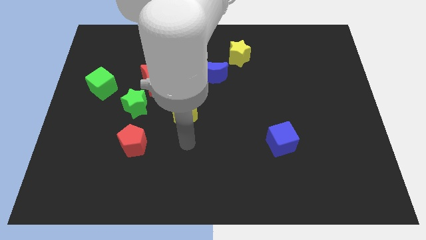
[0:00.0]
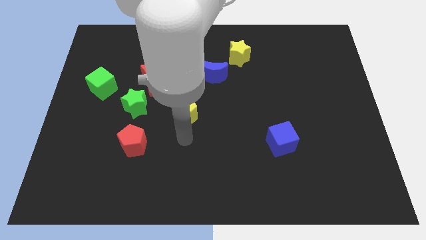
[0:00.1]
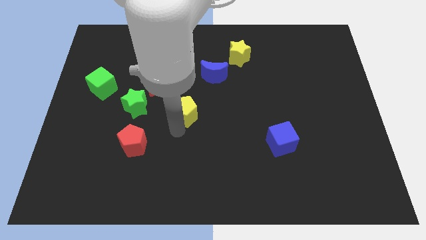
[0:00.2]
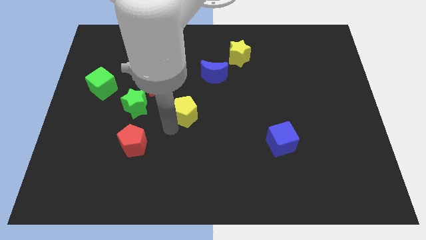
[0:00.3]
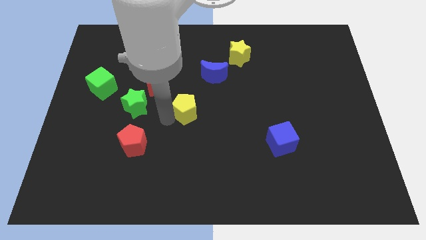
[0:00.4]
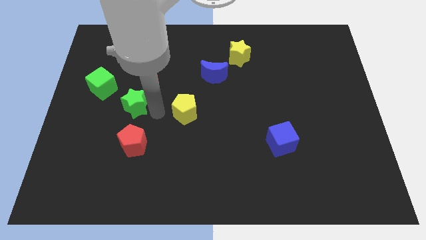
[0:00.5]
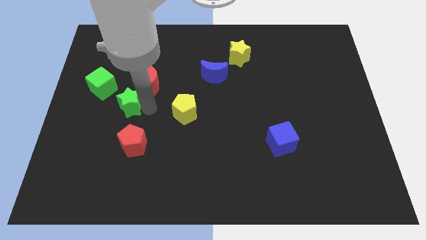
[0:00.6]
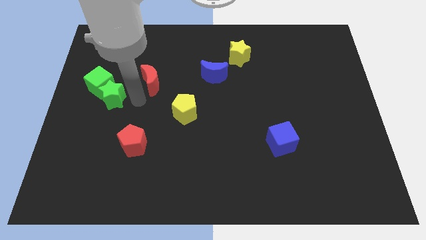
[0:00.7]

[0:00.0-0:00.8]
move the red moon away from the green star

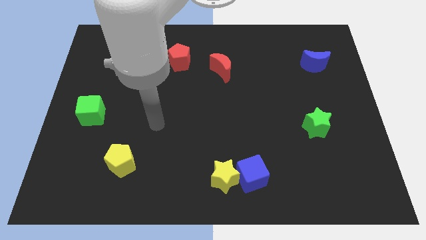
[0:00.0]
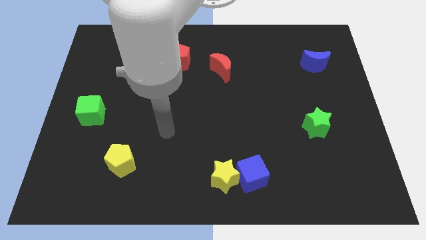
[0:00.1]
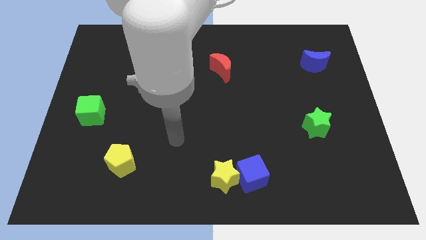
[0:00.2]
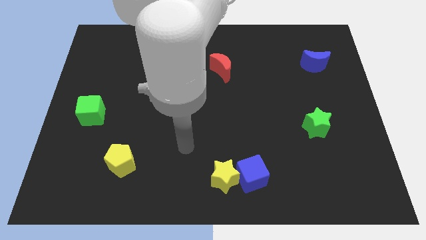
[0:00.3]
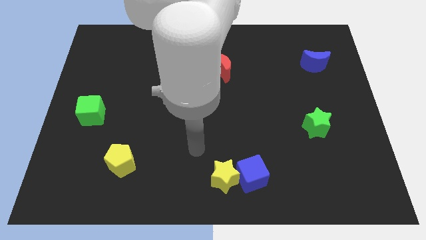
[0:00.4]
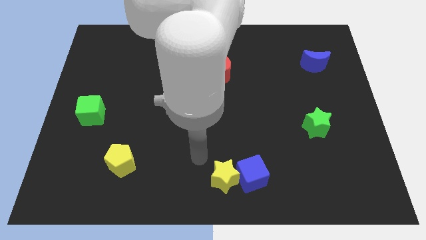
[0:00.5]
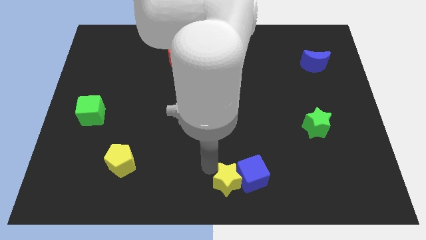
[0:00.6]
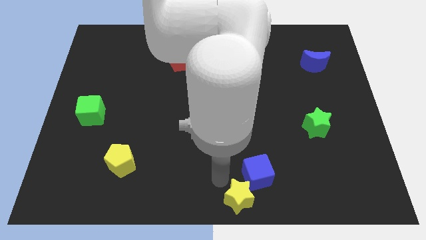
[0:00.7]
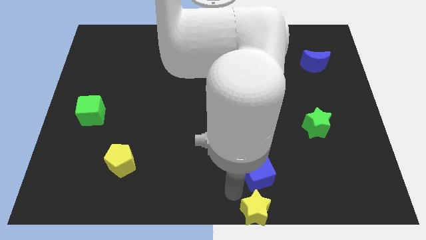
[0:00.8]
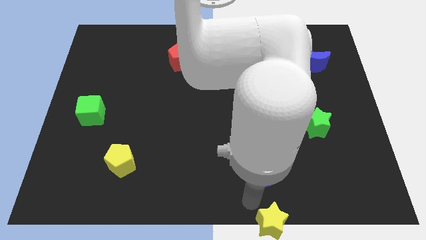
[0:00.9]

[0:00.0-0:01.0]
pull the blue cube apart from the yellow star

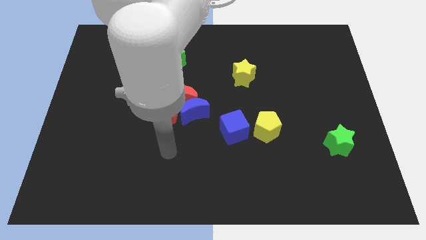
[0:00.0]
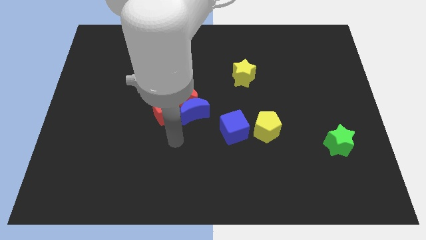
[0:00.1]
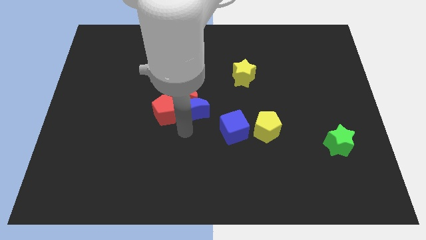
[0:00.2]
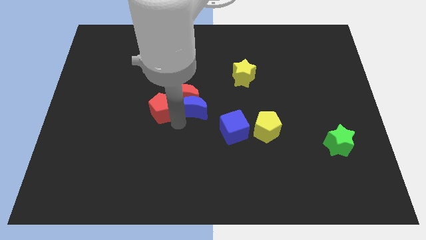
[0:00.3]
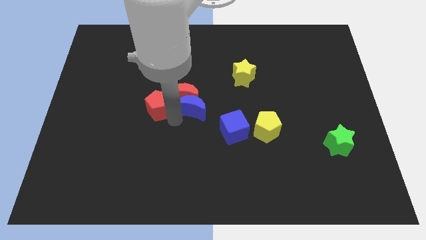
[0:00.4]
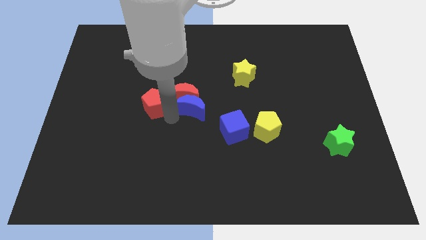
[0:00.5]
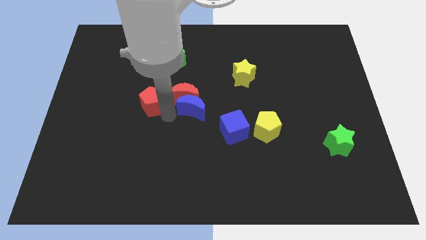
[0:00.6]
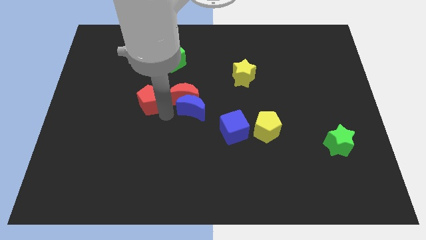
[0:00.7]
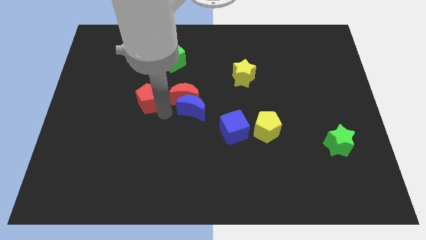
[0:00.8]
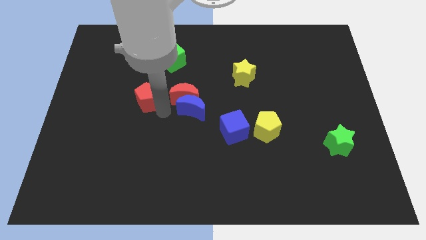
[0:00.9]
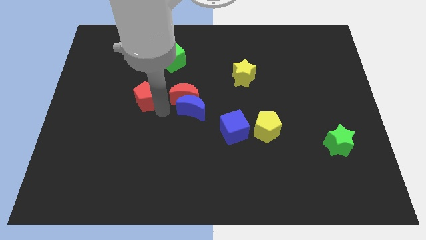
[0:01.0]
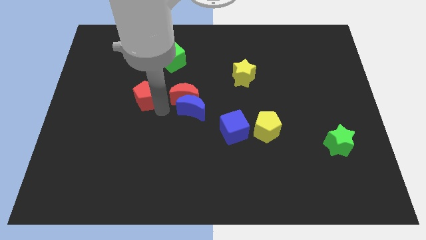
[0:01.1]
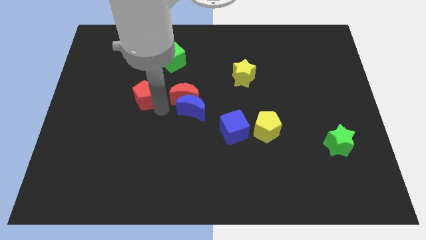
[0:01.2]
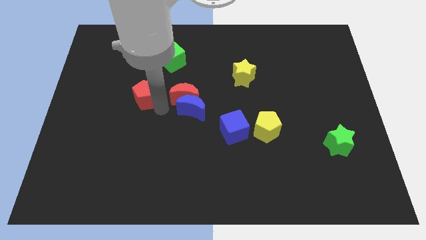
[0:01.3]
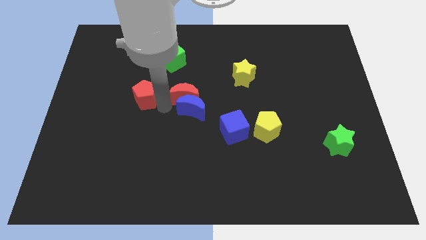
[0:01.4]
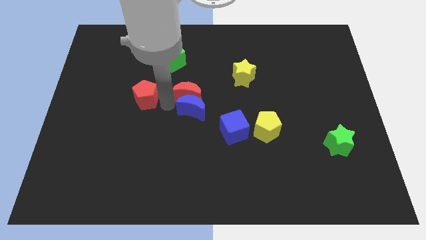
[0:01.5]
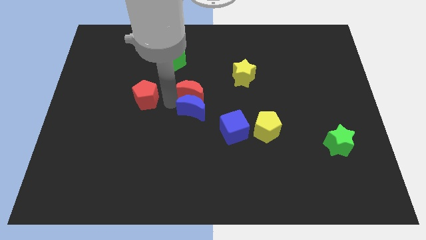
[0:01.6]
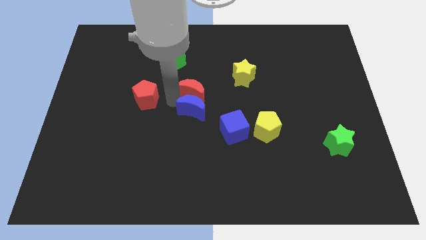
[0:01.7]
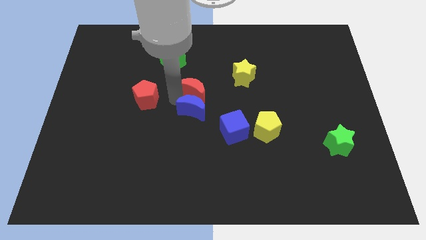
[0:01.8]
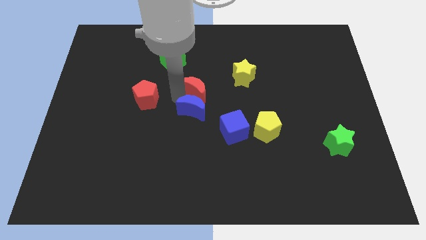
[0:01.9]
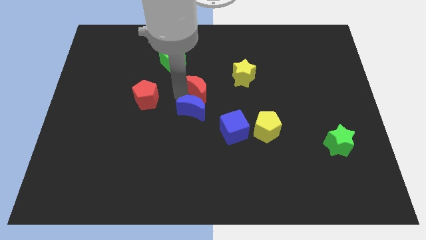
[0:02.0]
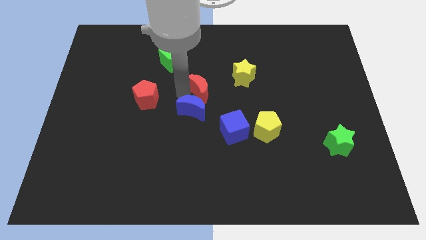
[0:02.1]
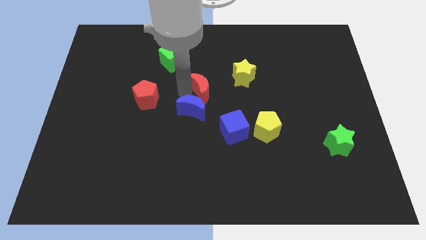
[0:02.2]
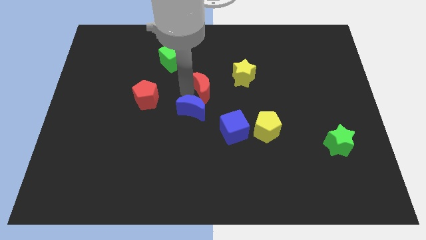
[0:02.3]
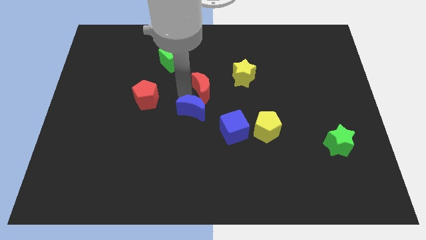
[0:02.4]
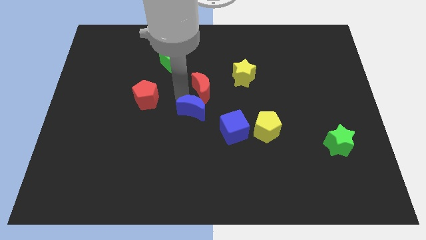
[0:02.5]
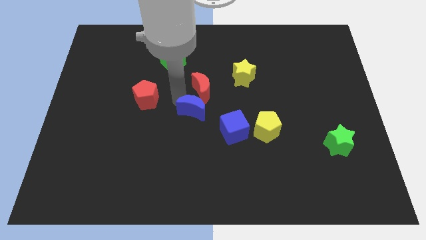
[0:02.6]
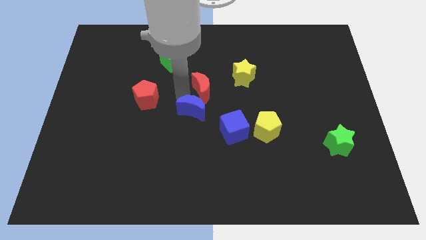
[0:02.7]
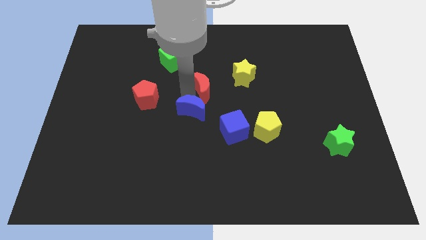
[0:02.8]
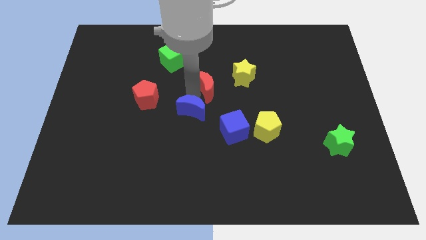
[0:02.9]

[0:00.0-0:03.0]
pull the red moon apart from the blue moon and red pentagon

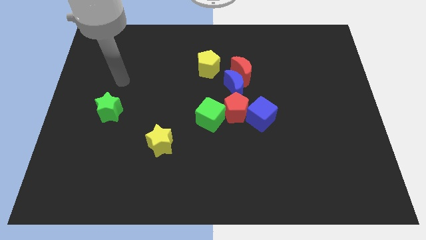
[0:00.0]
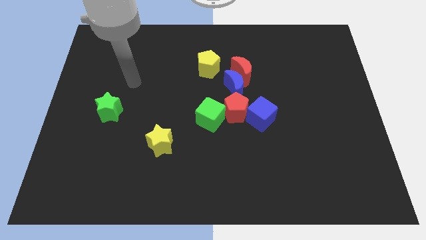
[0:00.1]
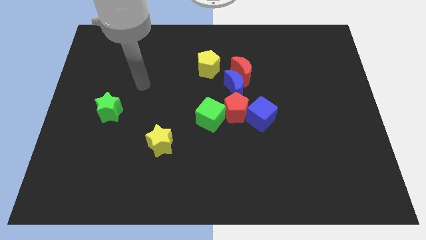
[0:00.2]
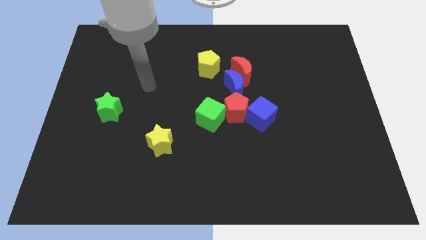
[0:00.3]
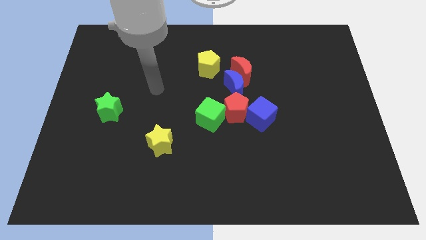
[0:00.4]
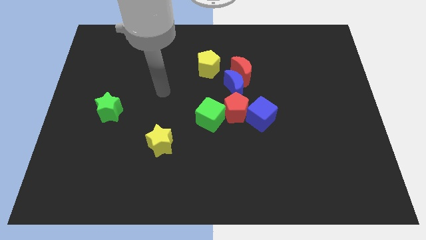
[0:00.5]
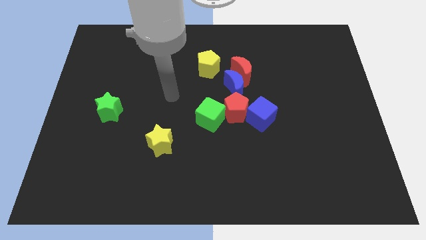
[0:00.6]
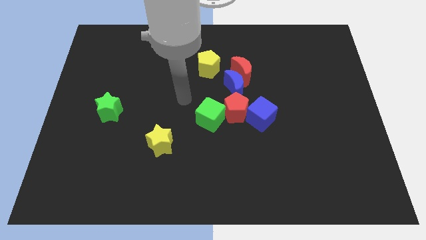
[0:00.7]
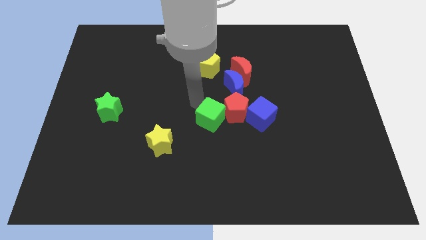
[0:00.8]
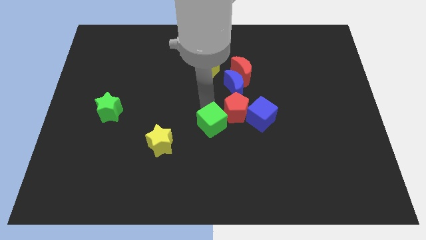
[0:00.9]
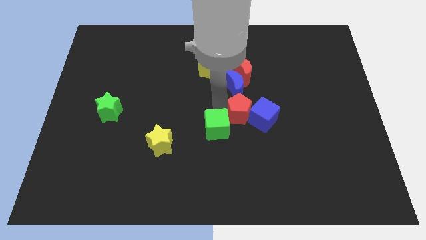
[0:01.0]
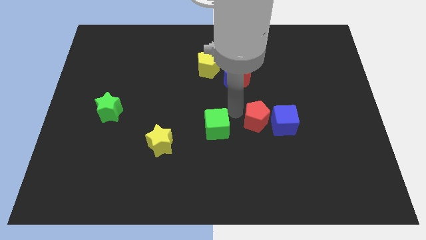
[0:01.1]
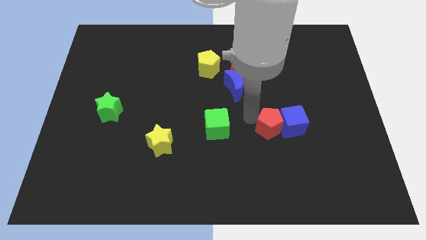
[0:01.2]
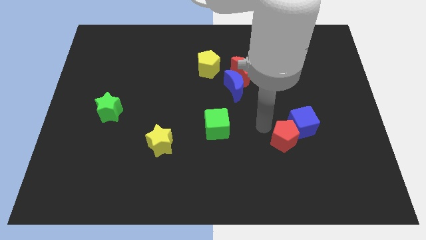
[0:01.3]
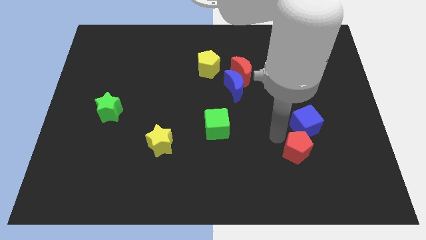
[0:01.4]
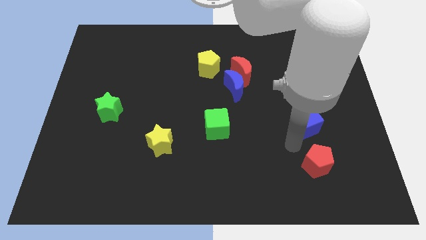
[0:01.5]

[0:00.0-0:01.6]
move the blue cube away from the red pentagon

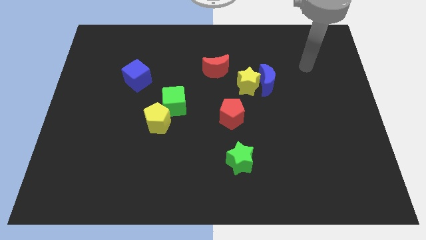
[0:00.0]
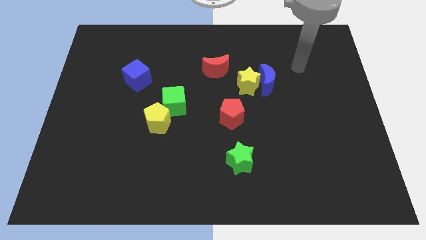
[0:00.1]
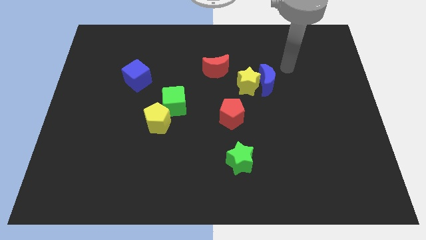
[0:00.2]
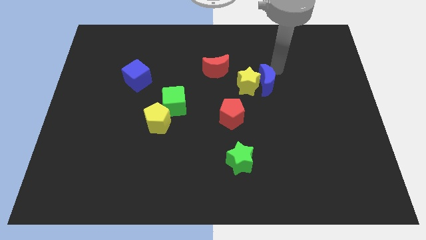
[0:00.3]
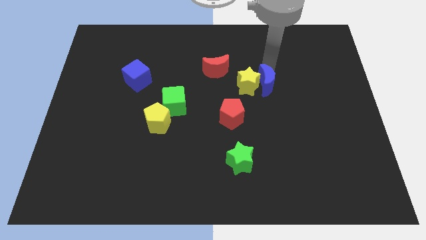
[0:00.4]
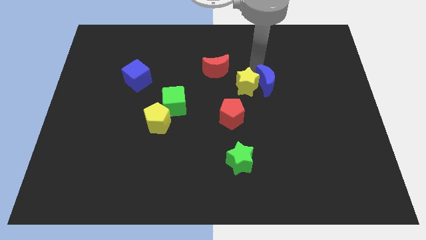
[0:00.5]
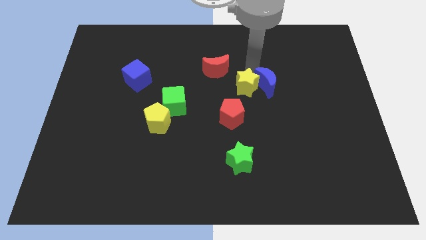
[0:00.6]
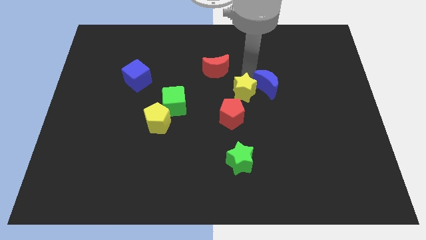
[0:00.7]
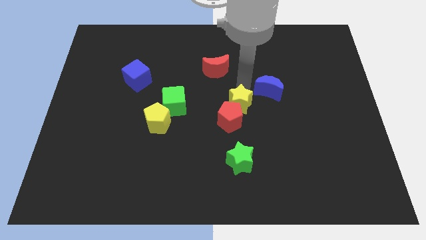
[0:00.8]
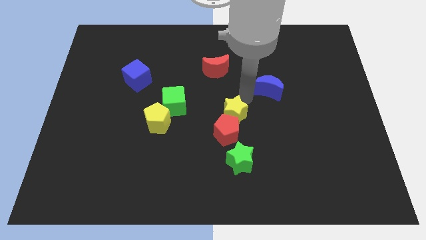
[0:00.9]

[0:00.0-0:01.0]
move the blue moon away from the yellow star

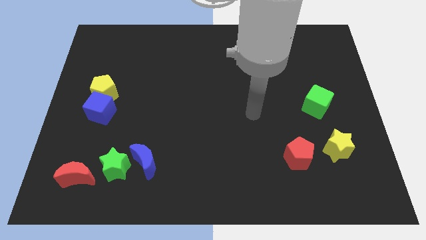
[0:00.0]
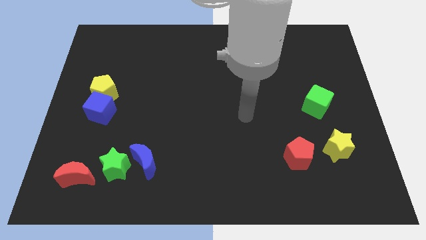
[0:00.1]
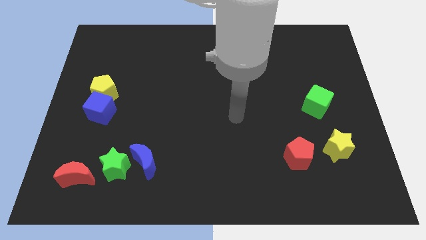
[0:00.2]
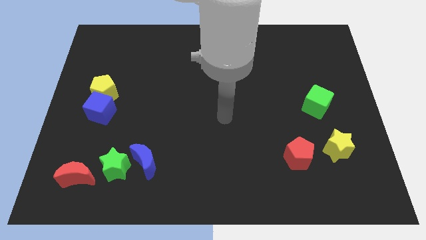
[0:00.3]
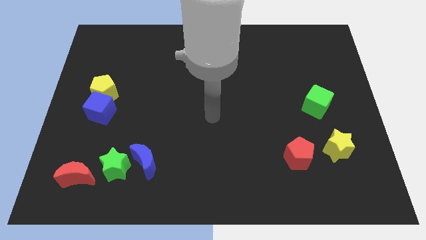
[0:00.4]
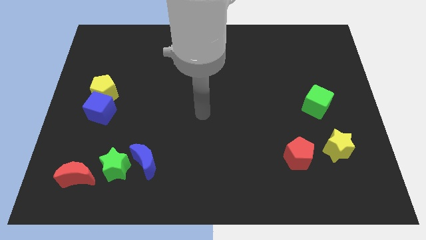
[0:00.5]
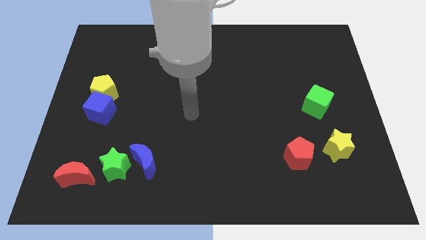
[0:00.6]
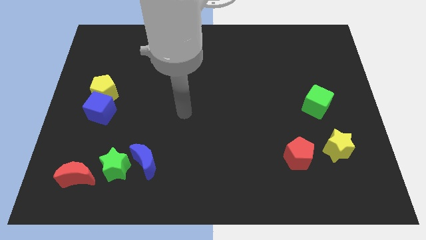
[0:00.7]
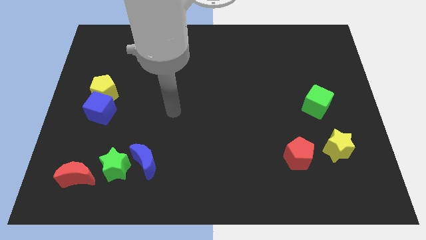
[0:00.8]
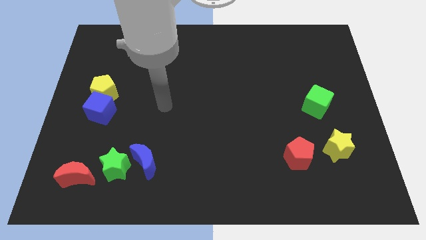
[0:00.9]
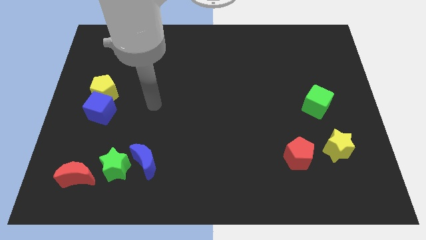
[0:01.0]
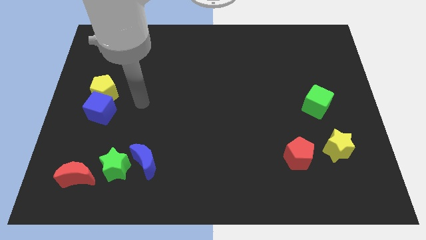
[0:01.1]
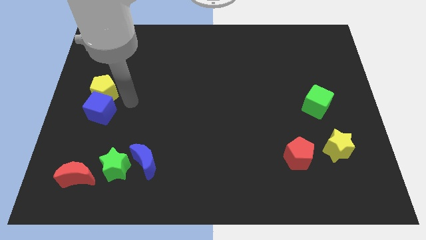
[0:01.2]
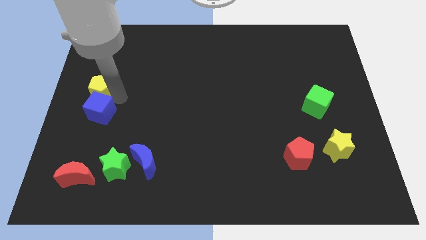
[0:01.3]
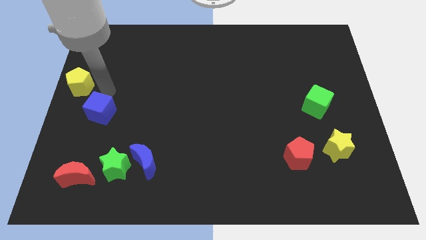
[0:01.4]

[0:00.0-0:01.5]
move the blue cube away from the yellow pentagon

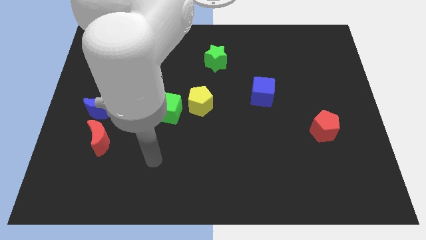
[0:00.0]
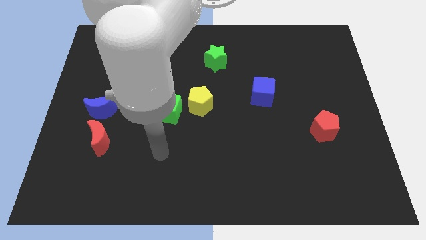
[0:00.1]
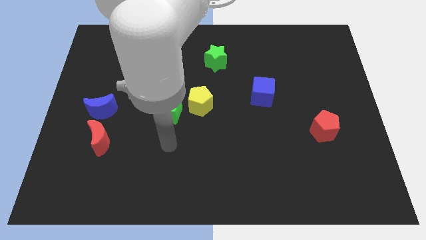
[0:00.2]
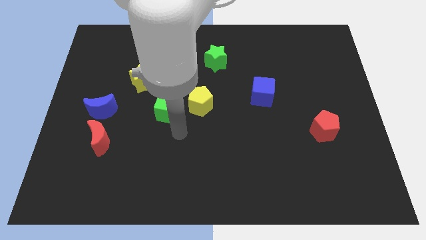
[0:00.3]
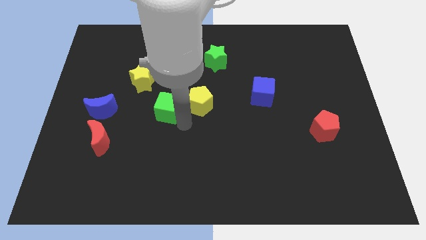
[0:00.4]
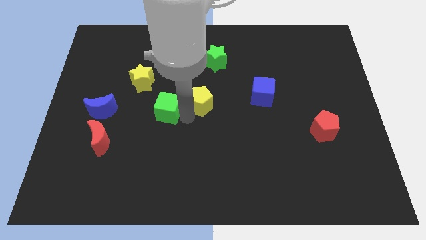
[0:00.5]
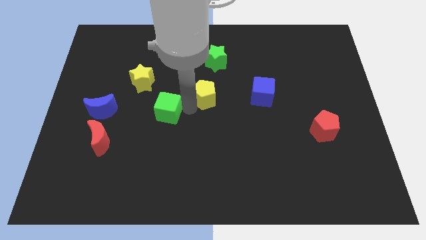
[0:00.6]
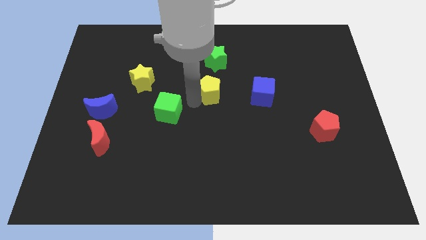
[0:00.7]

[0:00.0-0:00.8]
pull the green cube apart from the yellow pentagon
